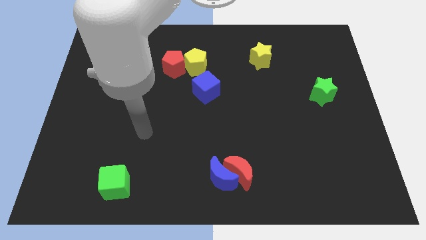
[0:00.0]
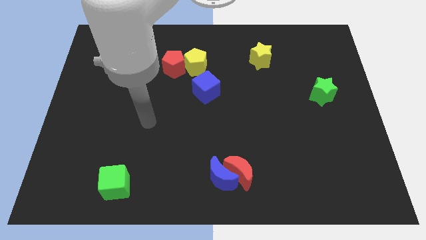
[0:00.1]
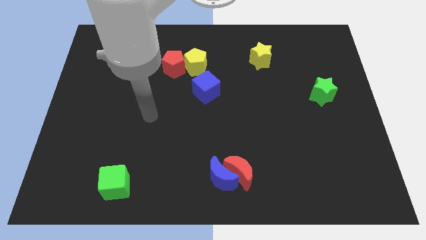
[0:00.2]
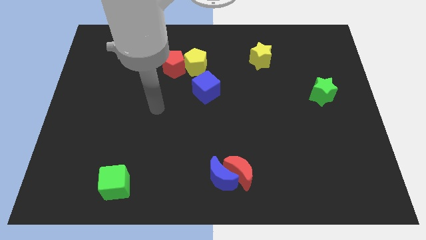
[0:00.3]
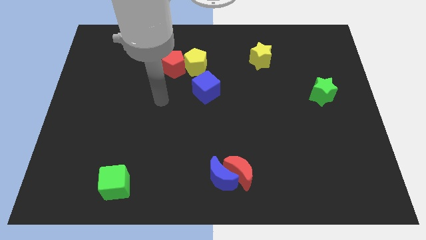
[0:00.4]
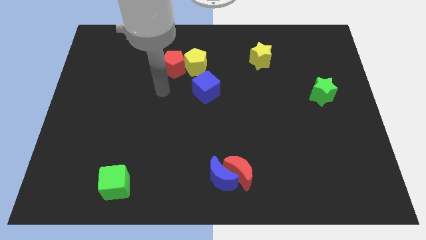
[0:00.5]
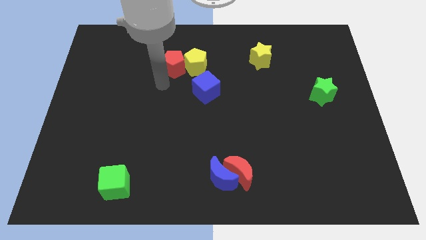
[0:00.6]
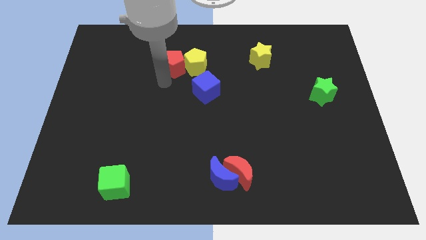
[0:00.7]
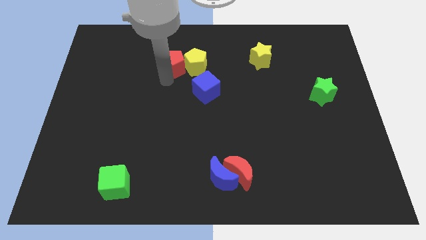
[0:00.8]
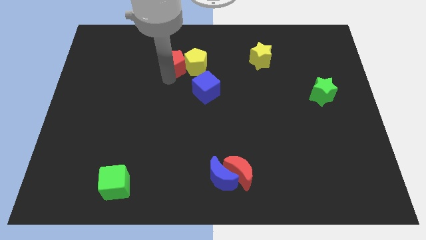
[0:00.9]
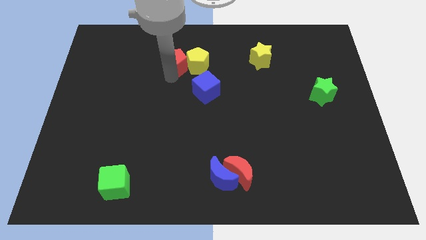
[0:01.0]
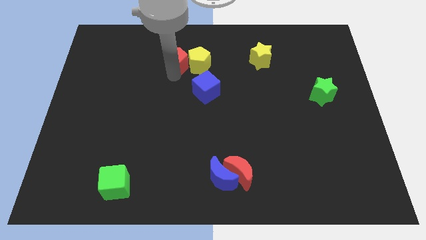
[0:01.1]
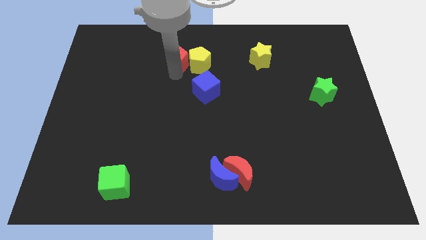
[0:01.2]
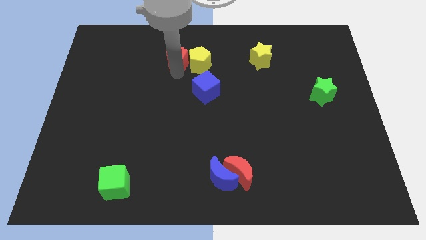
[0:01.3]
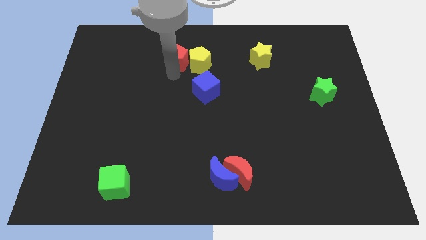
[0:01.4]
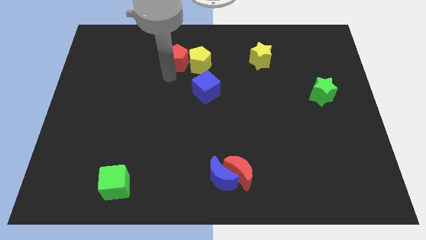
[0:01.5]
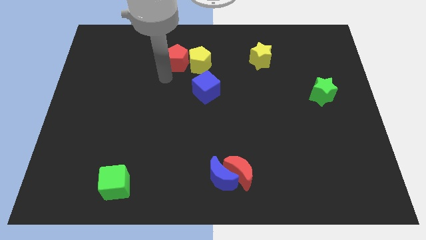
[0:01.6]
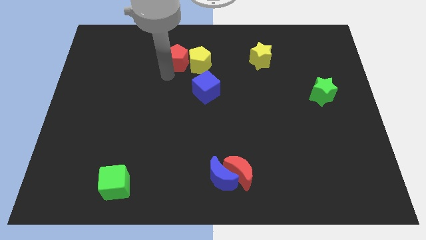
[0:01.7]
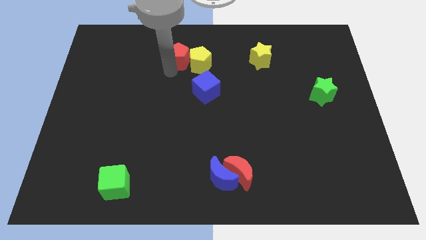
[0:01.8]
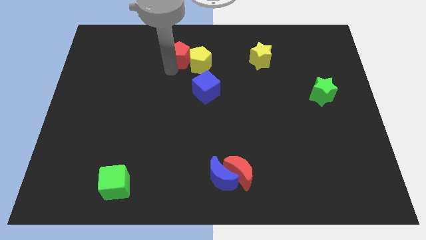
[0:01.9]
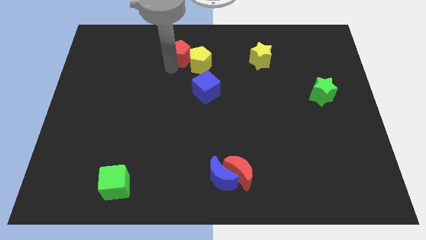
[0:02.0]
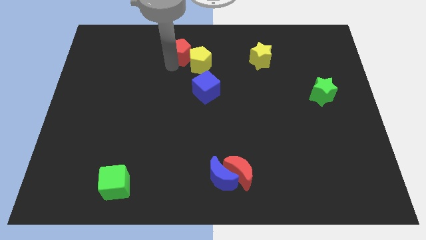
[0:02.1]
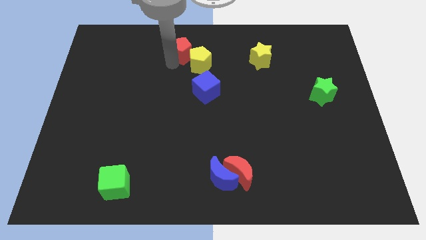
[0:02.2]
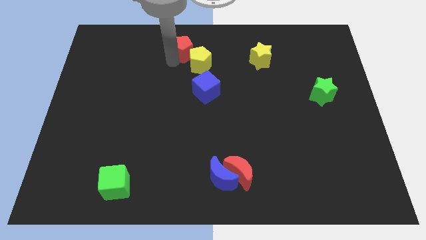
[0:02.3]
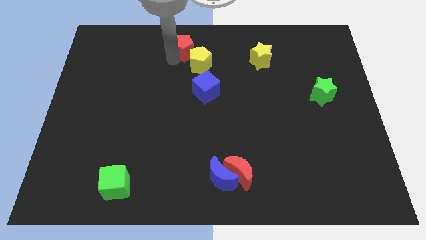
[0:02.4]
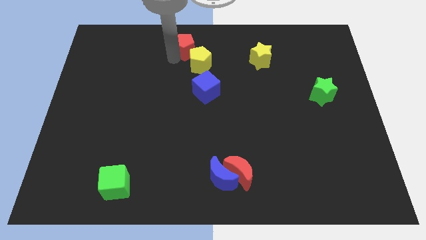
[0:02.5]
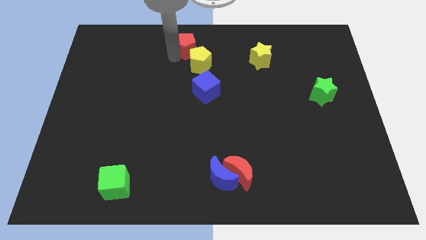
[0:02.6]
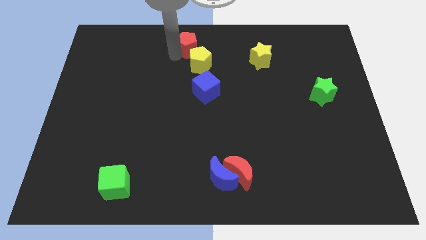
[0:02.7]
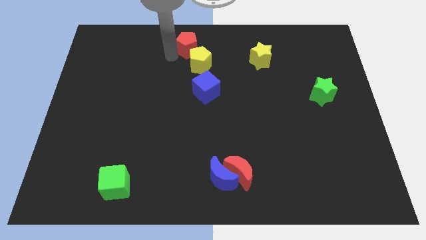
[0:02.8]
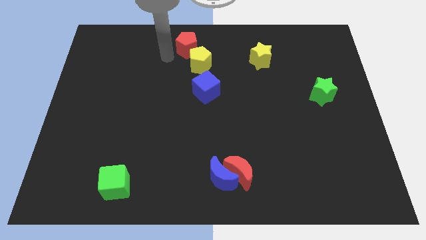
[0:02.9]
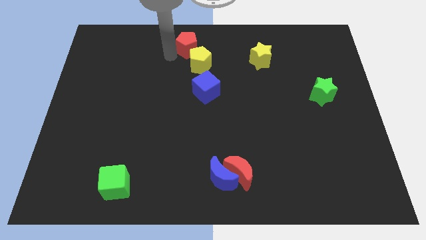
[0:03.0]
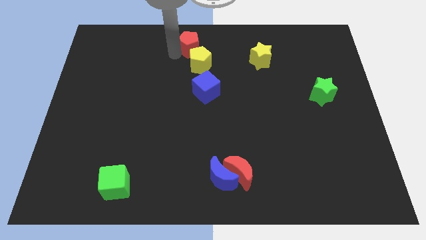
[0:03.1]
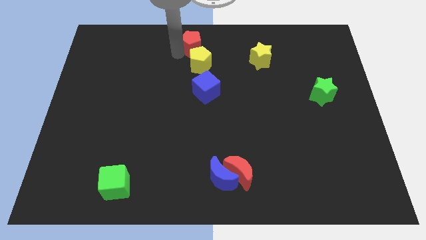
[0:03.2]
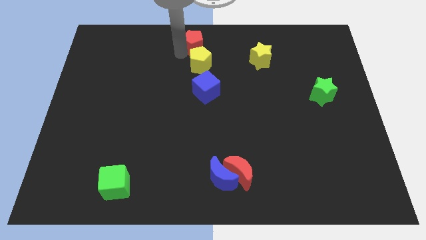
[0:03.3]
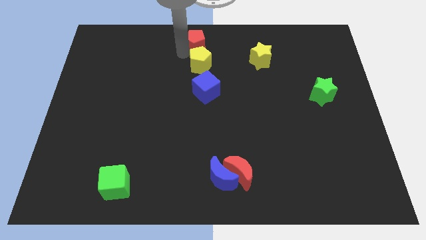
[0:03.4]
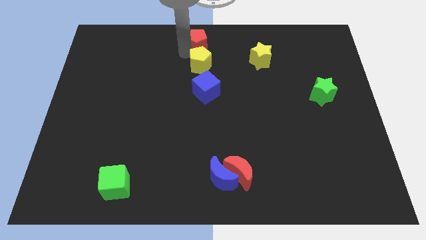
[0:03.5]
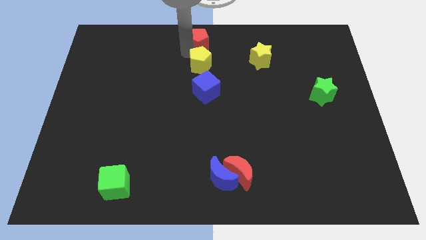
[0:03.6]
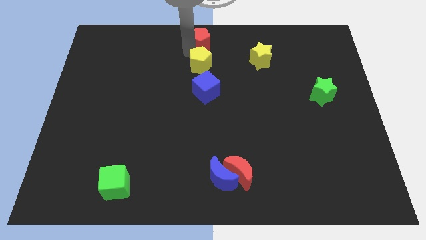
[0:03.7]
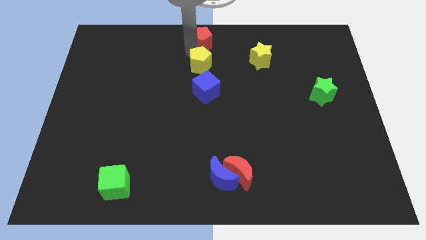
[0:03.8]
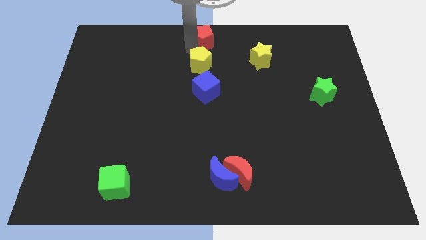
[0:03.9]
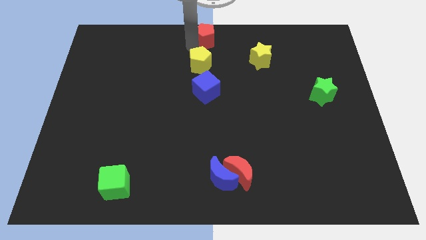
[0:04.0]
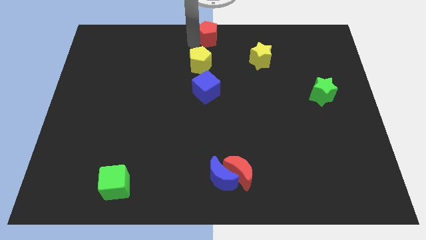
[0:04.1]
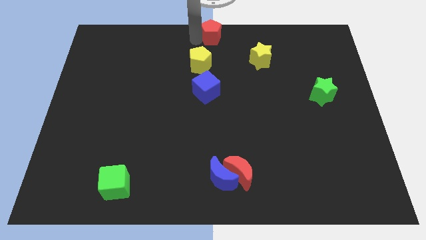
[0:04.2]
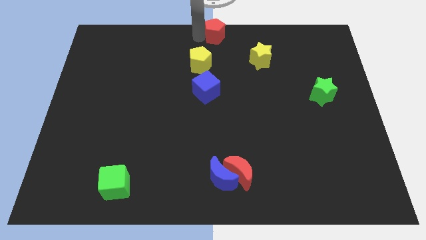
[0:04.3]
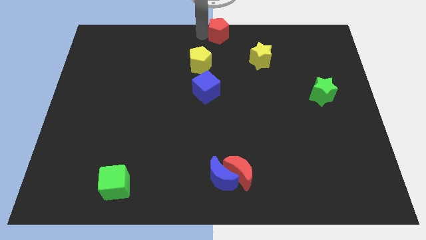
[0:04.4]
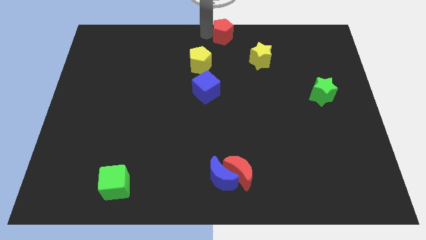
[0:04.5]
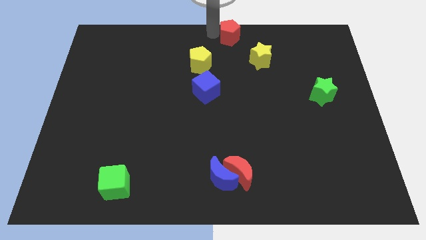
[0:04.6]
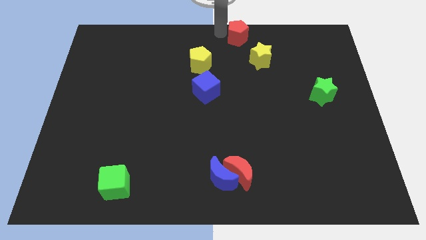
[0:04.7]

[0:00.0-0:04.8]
push the red pentagon a little bit to the right

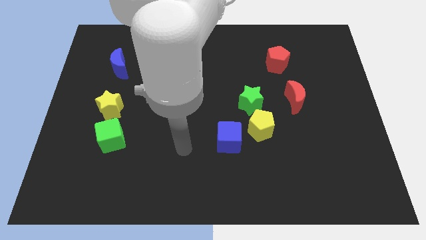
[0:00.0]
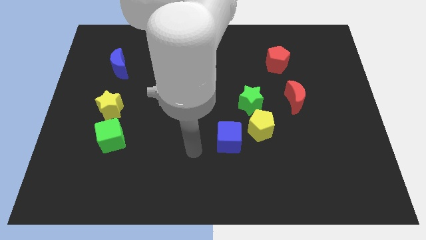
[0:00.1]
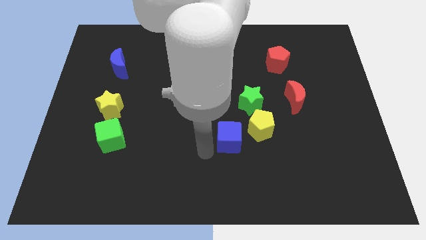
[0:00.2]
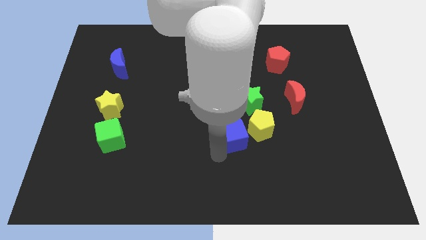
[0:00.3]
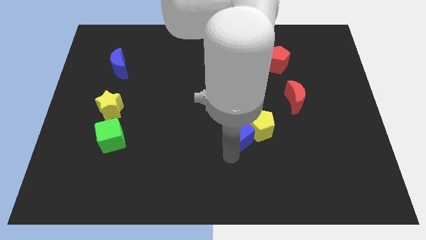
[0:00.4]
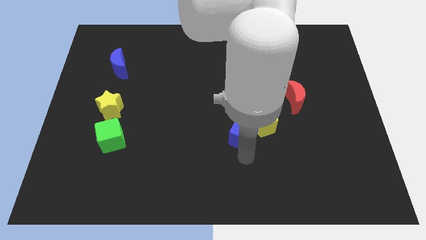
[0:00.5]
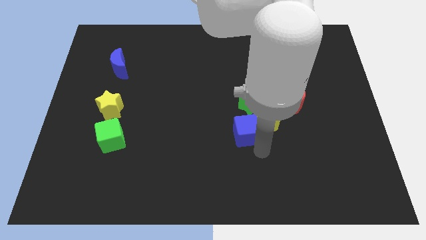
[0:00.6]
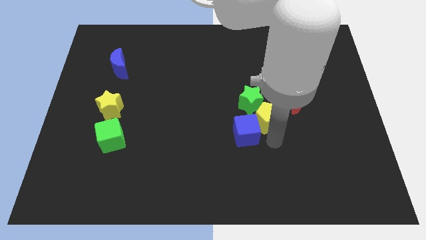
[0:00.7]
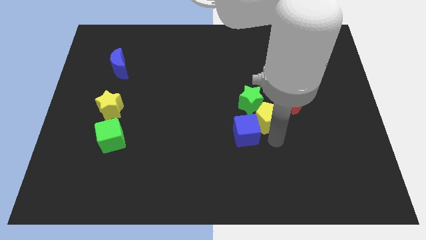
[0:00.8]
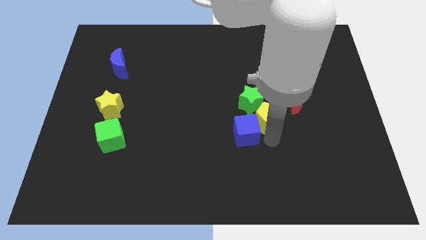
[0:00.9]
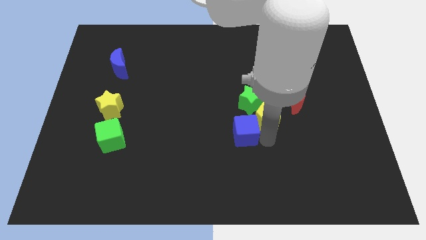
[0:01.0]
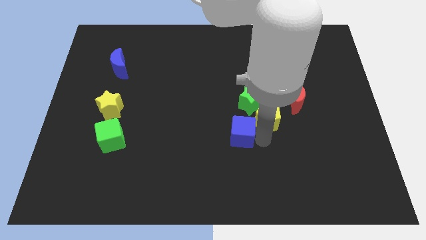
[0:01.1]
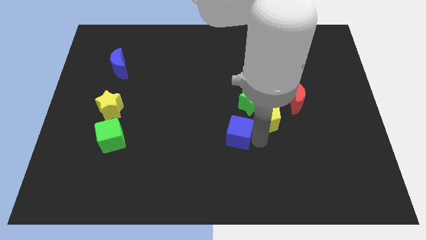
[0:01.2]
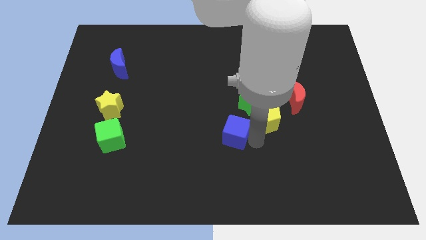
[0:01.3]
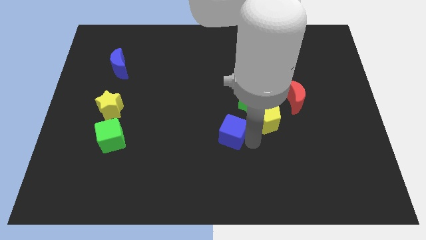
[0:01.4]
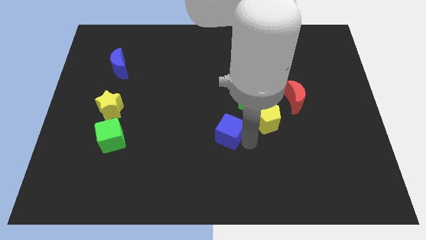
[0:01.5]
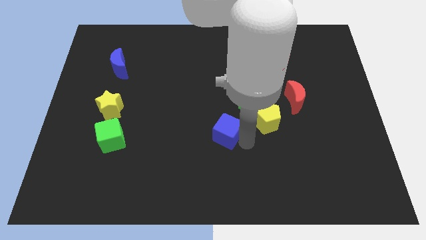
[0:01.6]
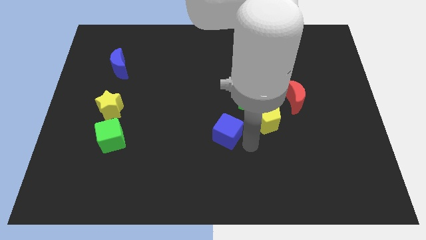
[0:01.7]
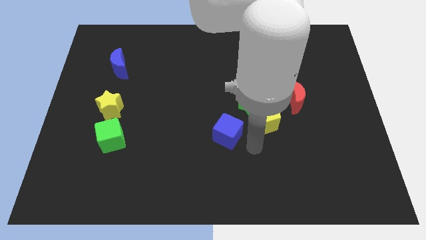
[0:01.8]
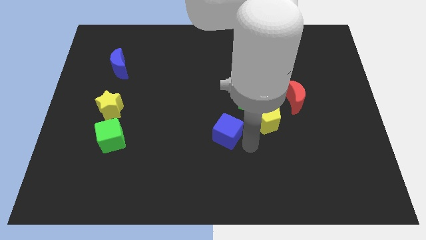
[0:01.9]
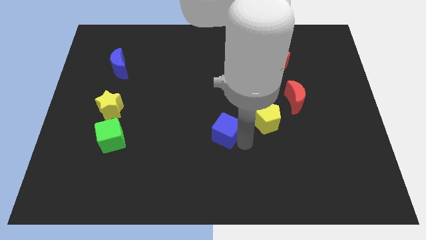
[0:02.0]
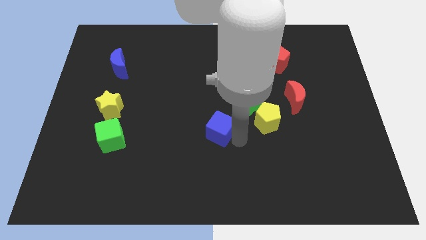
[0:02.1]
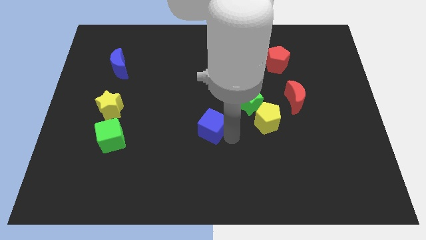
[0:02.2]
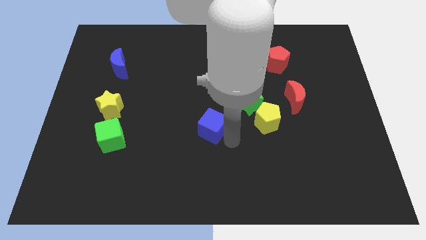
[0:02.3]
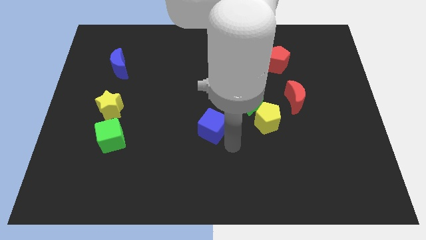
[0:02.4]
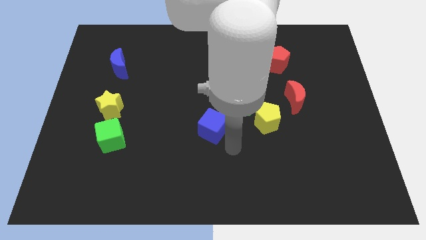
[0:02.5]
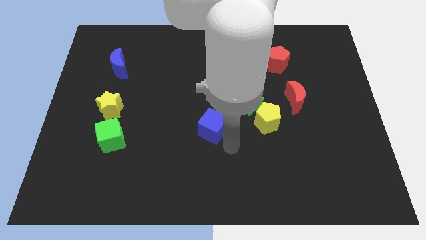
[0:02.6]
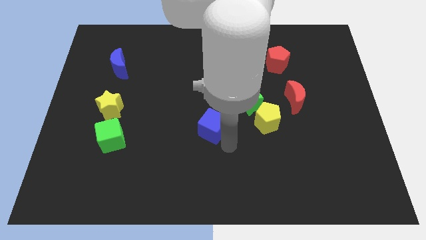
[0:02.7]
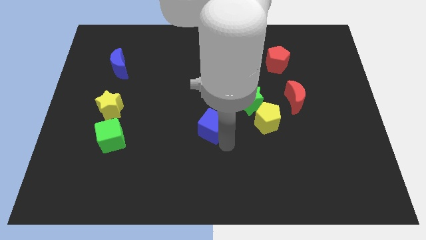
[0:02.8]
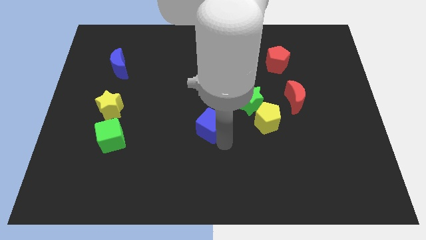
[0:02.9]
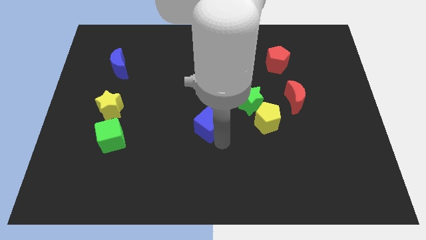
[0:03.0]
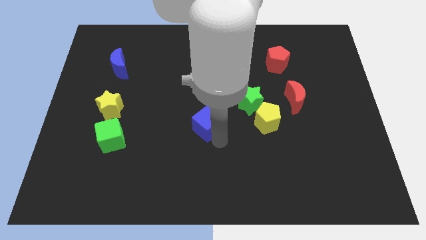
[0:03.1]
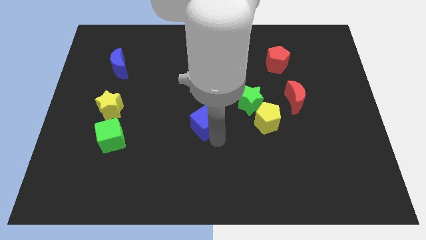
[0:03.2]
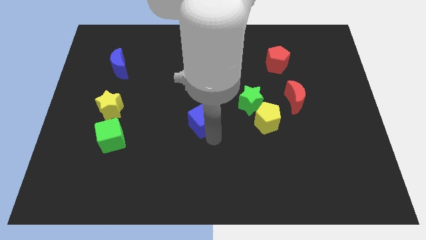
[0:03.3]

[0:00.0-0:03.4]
slightly push the blue cube up and then left
